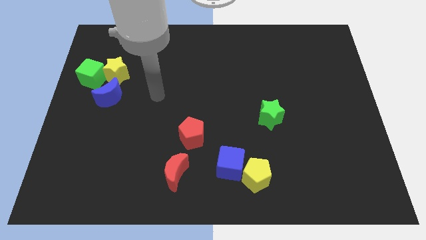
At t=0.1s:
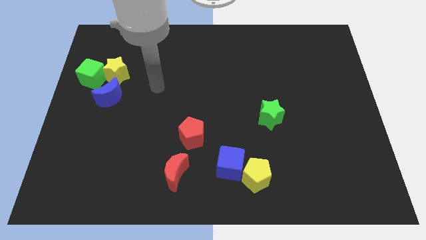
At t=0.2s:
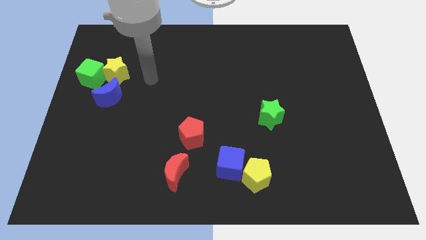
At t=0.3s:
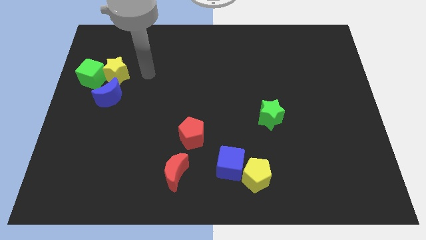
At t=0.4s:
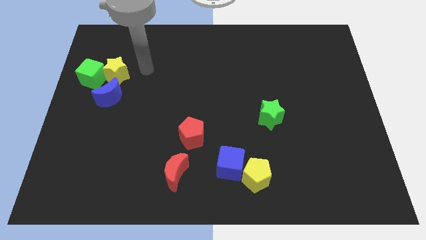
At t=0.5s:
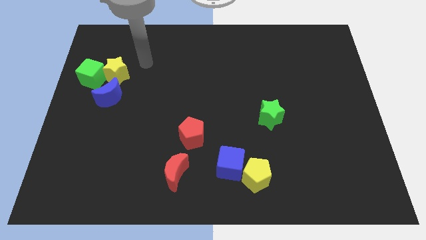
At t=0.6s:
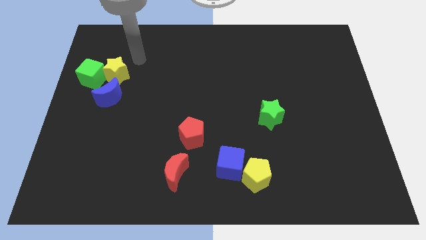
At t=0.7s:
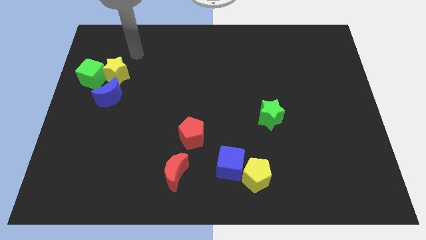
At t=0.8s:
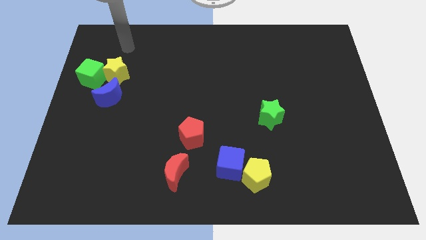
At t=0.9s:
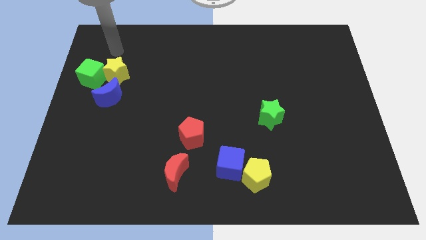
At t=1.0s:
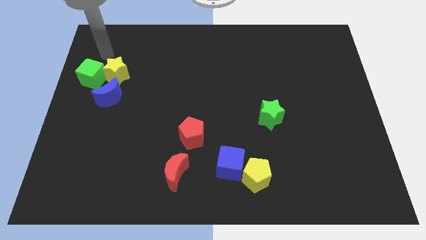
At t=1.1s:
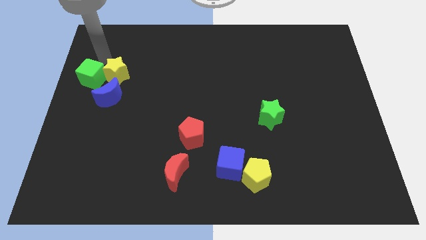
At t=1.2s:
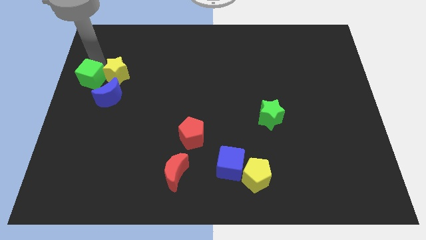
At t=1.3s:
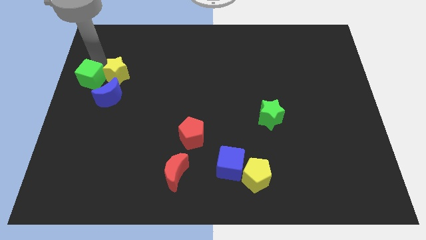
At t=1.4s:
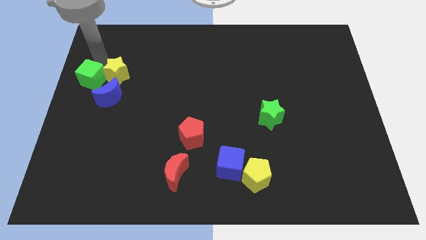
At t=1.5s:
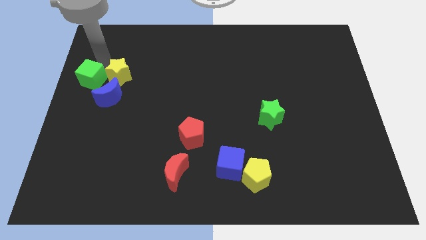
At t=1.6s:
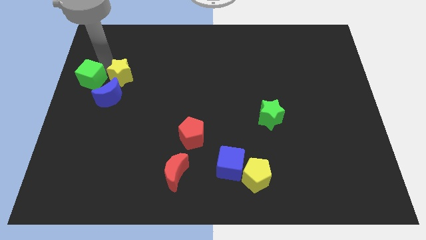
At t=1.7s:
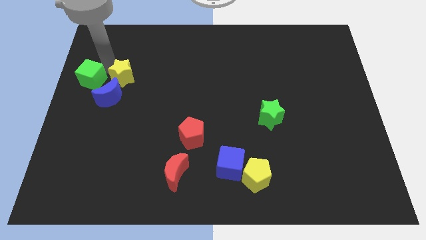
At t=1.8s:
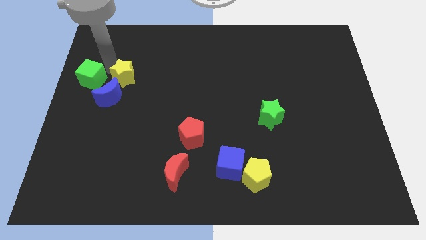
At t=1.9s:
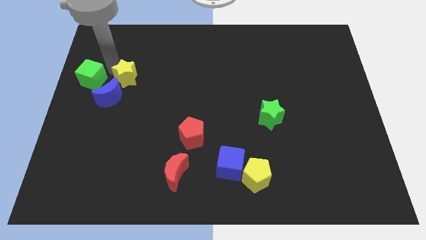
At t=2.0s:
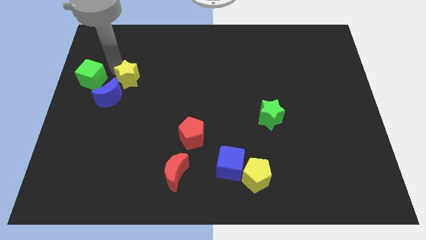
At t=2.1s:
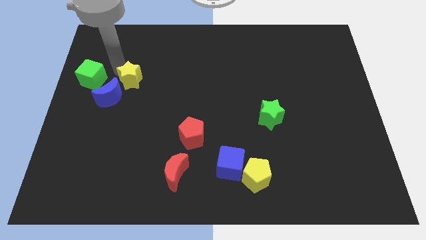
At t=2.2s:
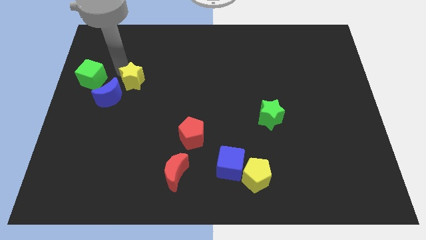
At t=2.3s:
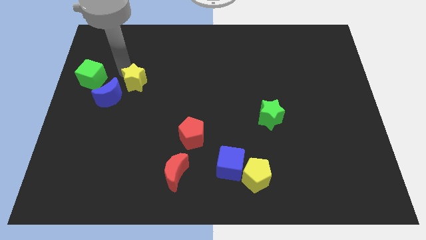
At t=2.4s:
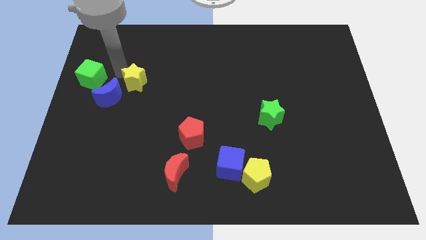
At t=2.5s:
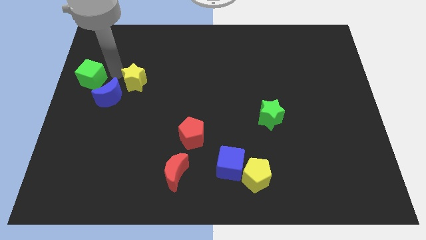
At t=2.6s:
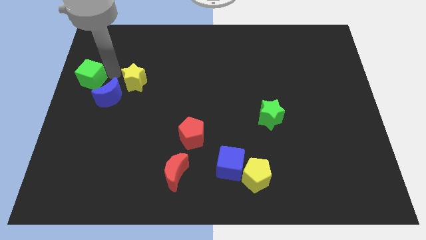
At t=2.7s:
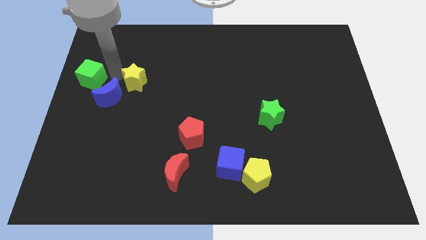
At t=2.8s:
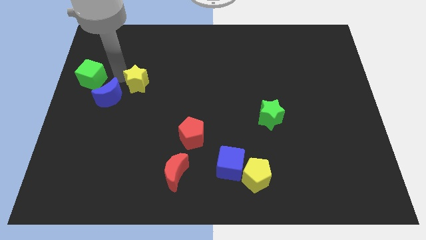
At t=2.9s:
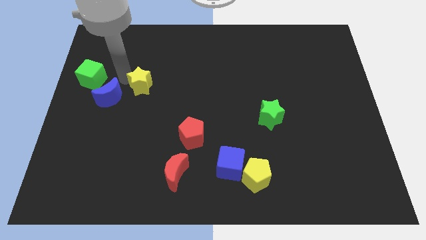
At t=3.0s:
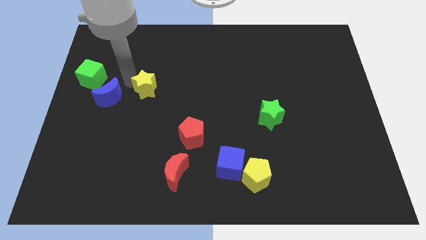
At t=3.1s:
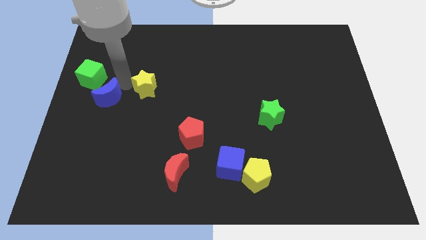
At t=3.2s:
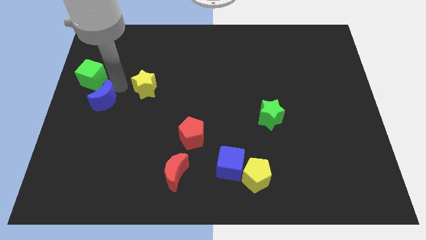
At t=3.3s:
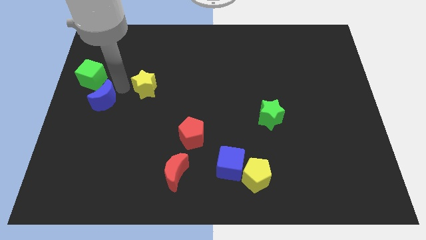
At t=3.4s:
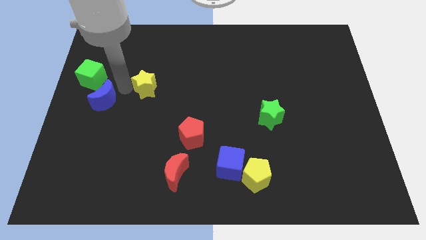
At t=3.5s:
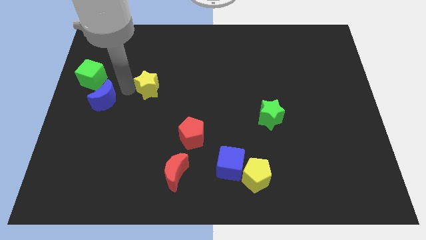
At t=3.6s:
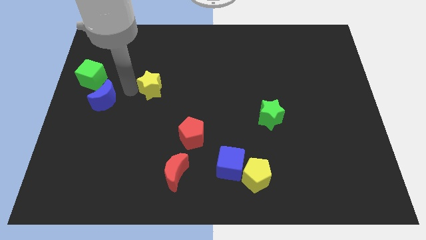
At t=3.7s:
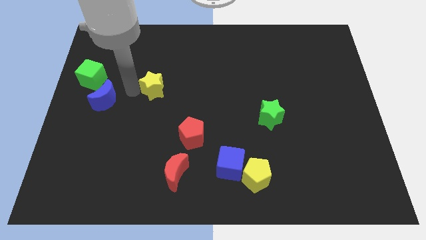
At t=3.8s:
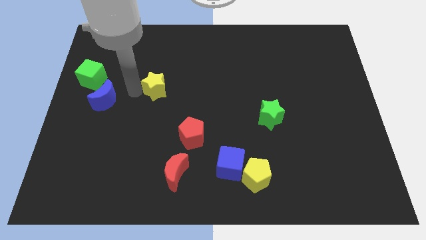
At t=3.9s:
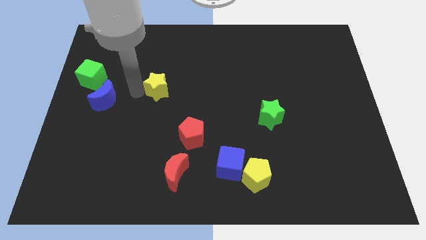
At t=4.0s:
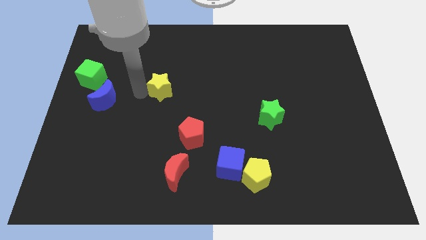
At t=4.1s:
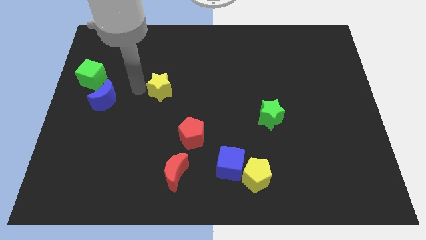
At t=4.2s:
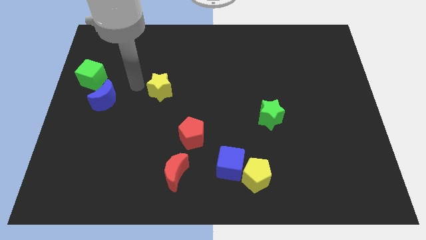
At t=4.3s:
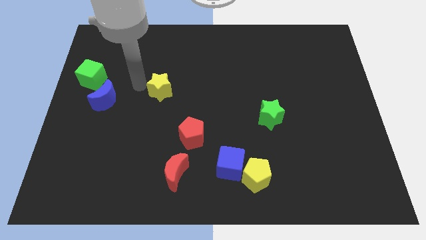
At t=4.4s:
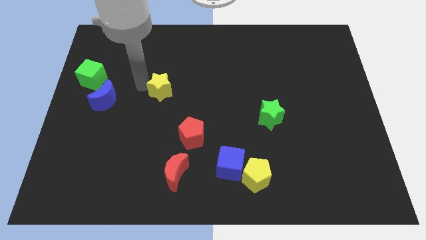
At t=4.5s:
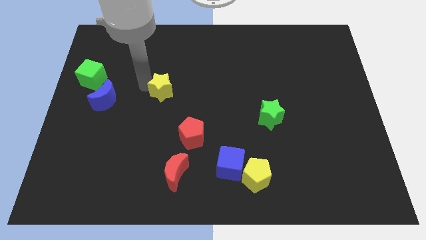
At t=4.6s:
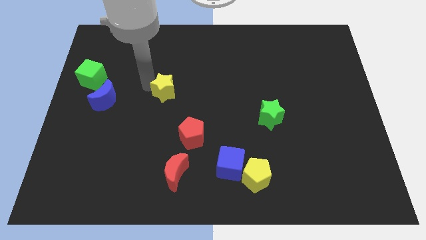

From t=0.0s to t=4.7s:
push the yellow star to the center of the board

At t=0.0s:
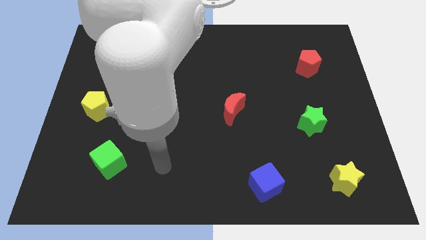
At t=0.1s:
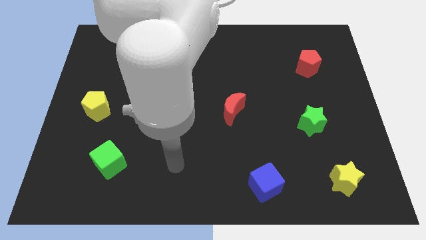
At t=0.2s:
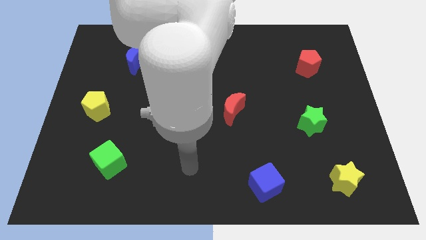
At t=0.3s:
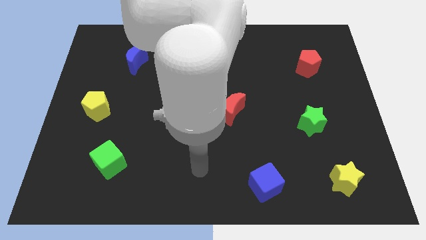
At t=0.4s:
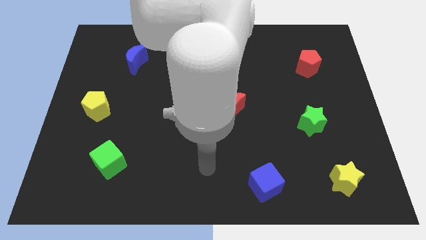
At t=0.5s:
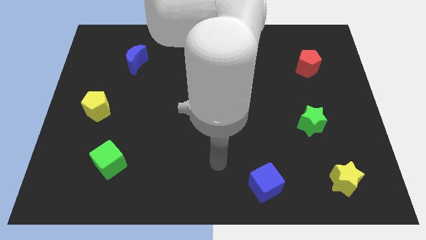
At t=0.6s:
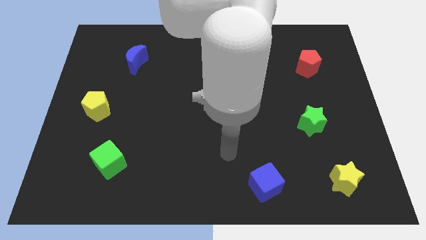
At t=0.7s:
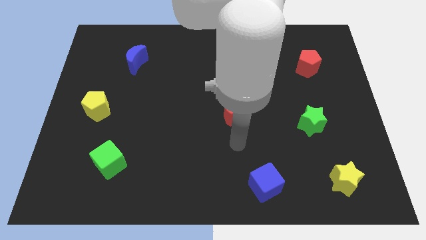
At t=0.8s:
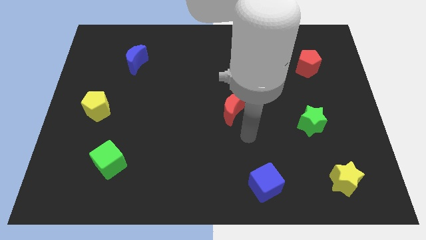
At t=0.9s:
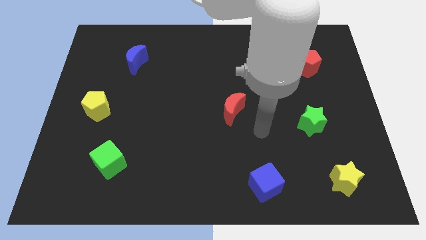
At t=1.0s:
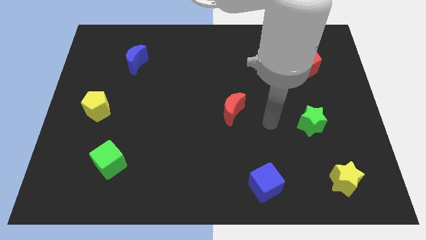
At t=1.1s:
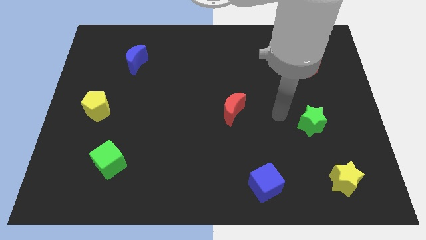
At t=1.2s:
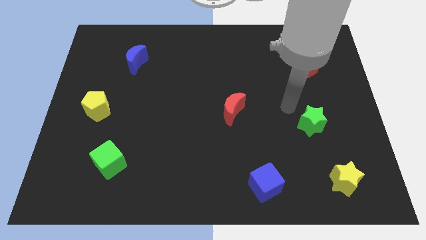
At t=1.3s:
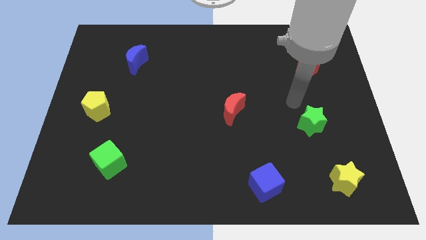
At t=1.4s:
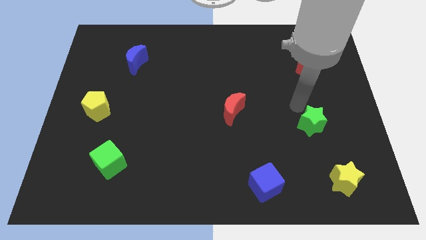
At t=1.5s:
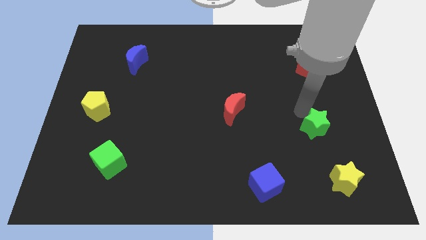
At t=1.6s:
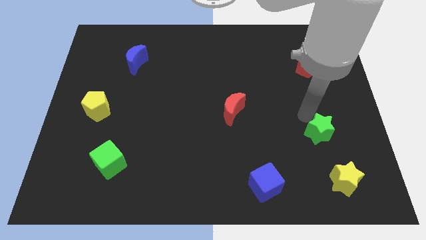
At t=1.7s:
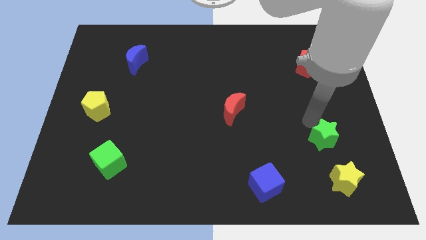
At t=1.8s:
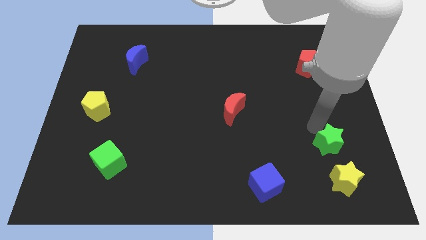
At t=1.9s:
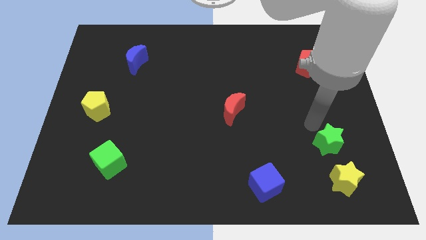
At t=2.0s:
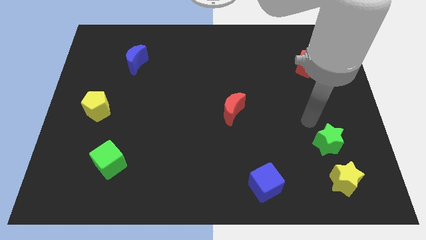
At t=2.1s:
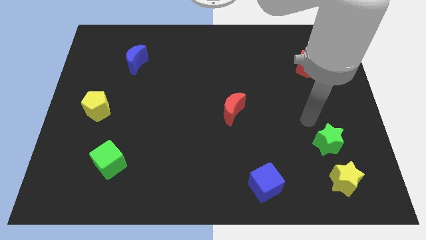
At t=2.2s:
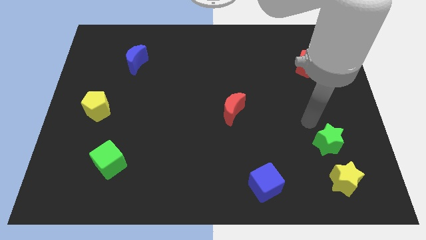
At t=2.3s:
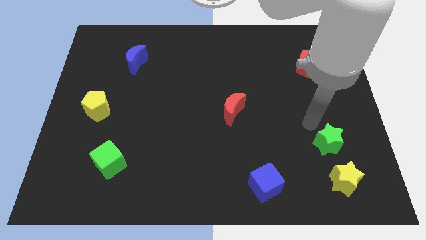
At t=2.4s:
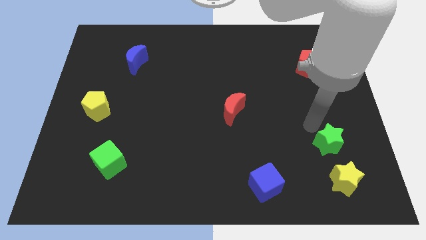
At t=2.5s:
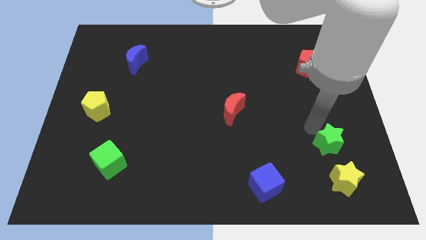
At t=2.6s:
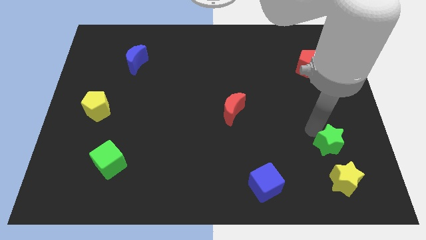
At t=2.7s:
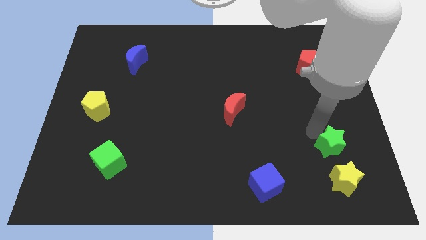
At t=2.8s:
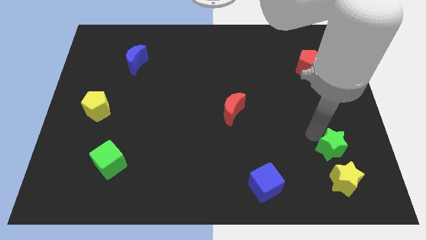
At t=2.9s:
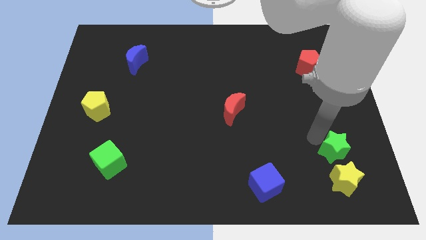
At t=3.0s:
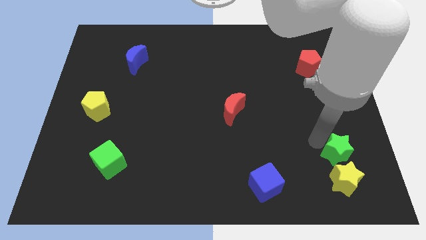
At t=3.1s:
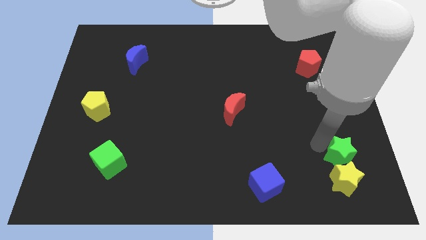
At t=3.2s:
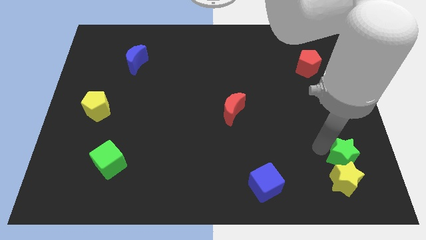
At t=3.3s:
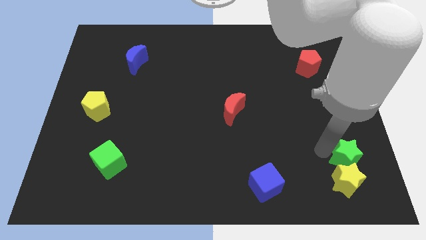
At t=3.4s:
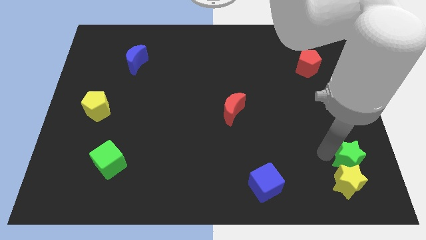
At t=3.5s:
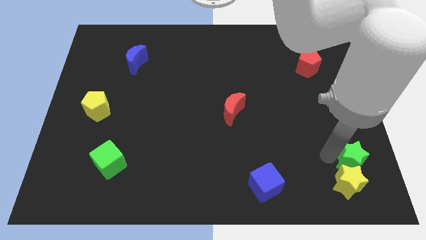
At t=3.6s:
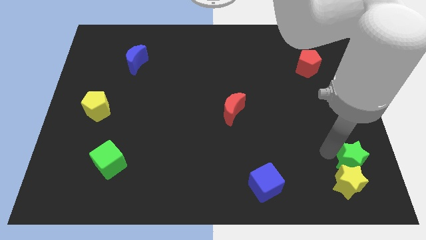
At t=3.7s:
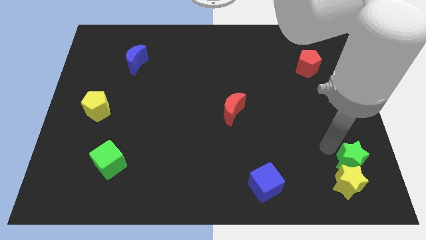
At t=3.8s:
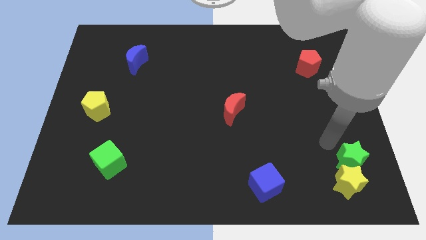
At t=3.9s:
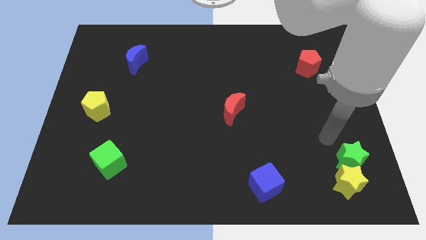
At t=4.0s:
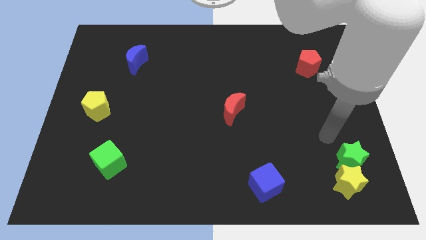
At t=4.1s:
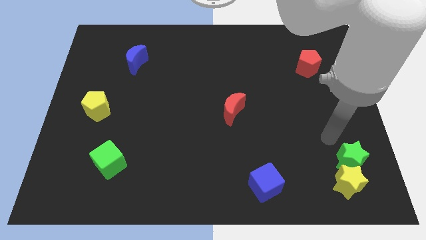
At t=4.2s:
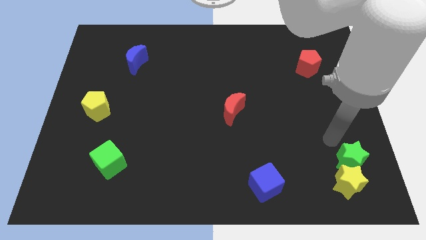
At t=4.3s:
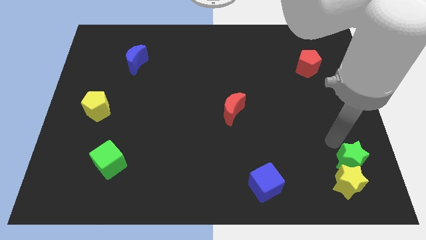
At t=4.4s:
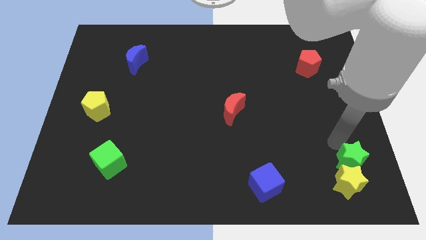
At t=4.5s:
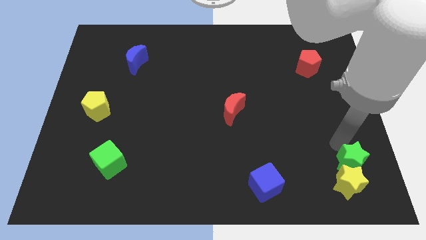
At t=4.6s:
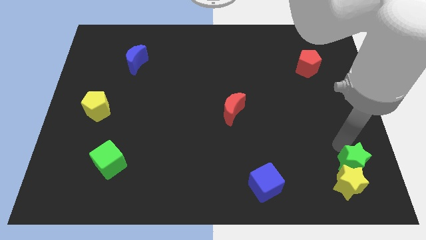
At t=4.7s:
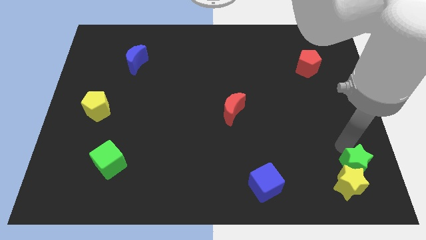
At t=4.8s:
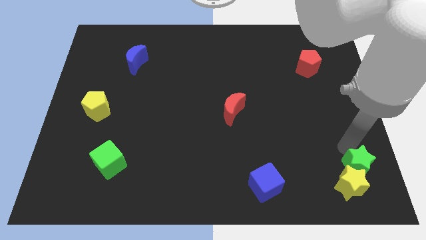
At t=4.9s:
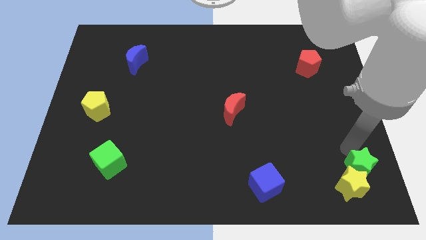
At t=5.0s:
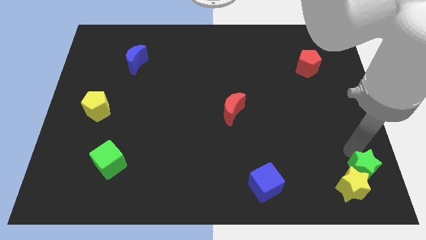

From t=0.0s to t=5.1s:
move the green star to the bottom right of the board
